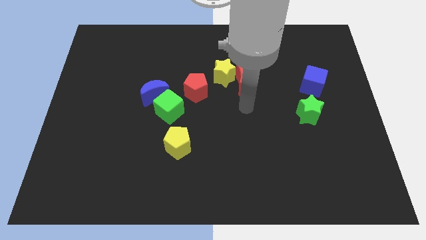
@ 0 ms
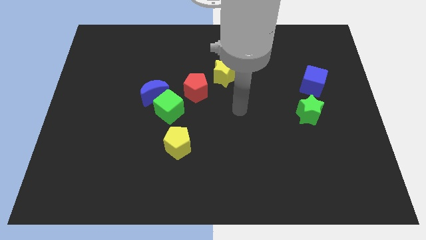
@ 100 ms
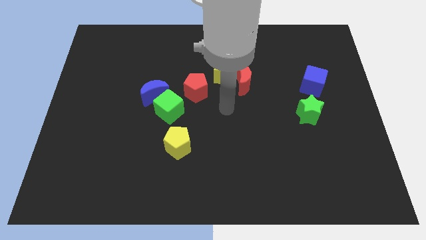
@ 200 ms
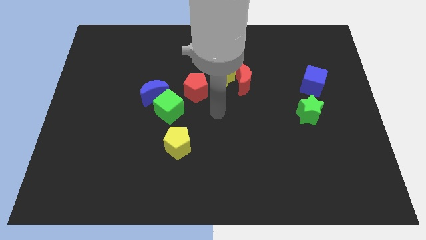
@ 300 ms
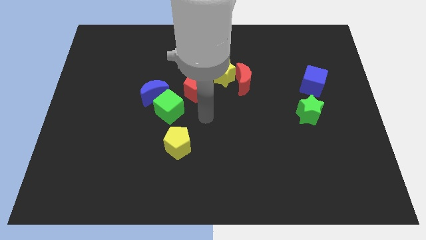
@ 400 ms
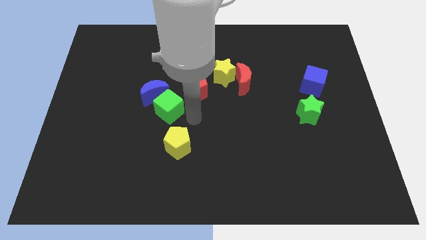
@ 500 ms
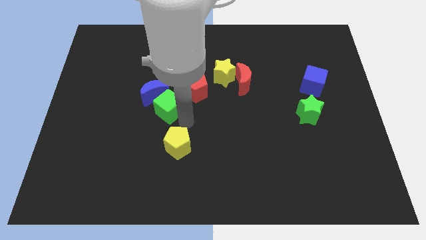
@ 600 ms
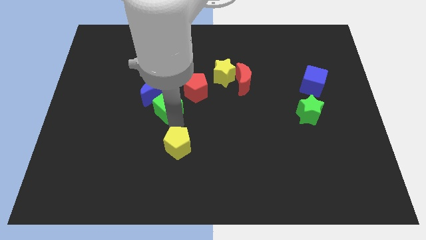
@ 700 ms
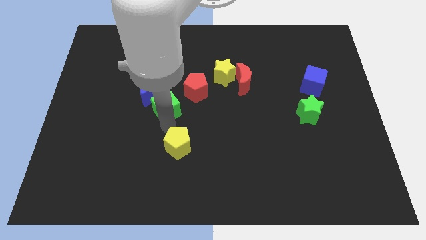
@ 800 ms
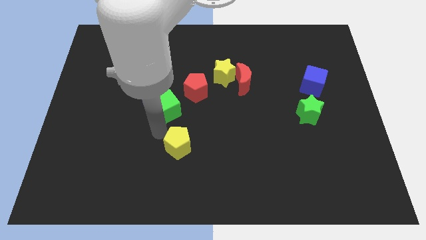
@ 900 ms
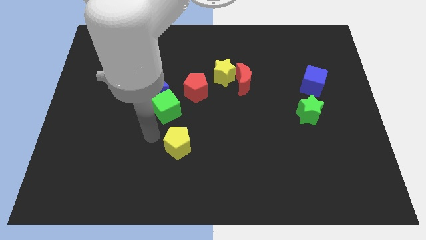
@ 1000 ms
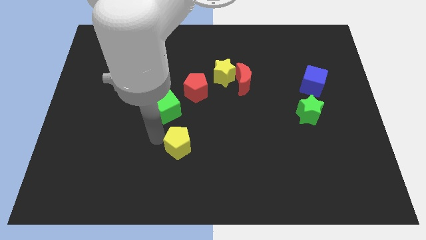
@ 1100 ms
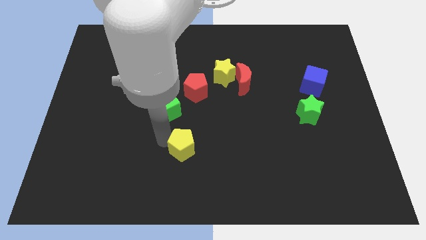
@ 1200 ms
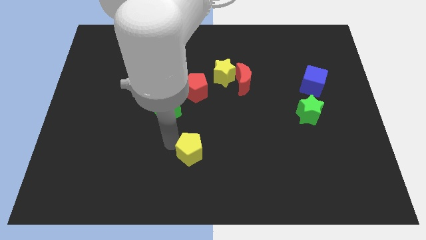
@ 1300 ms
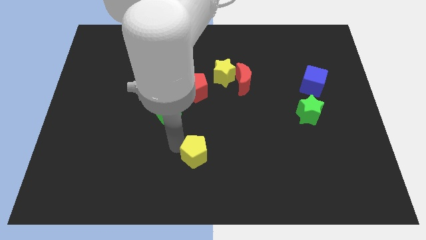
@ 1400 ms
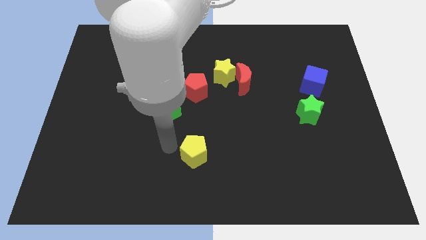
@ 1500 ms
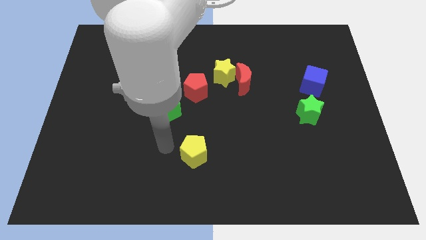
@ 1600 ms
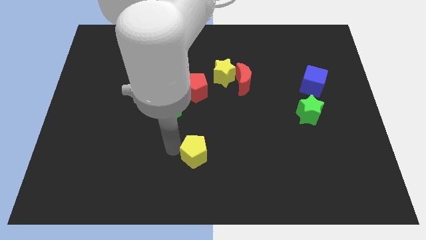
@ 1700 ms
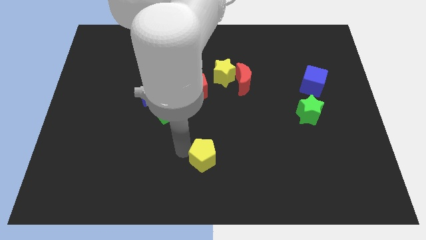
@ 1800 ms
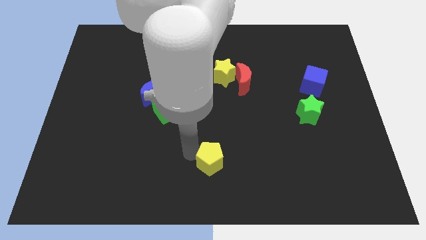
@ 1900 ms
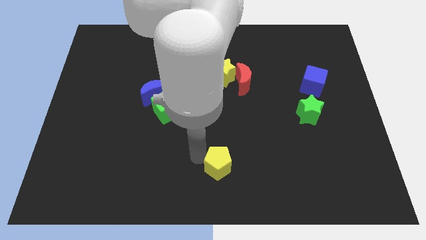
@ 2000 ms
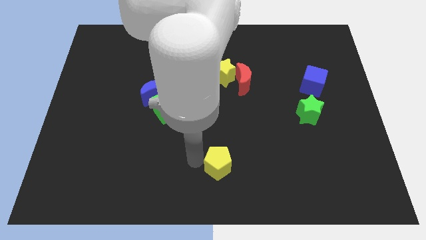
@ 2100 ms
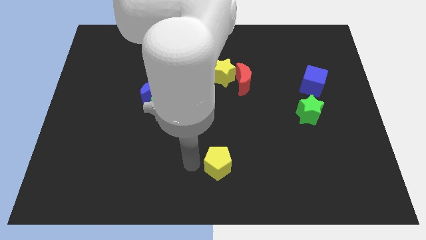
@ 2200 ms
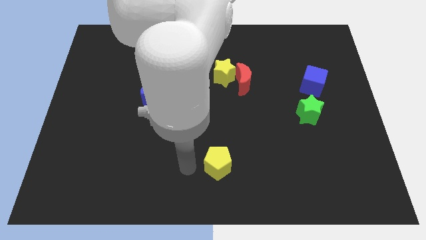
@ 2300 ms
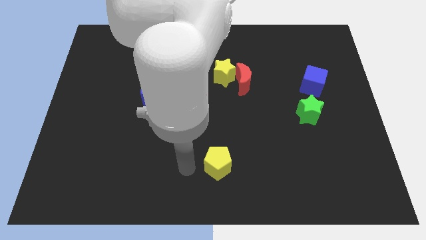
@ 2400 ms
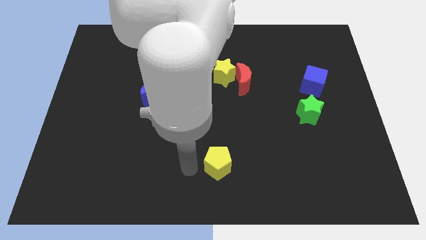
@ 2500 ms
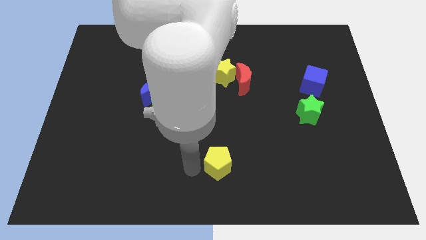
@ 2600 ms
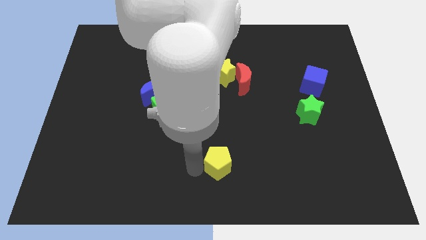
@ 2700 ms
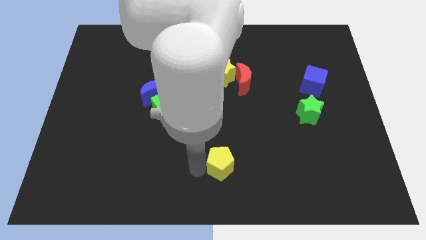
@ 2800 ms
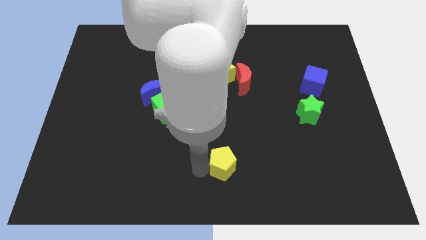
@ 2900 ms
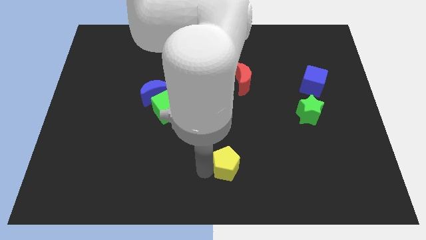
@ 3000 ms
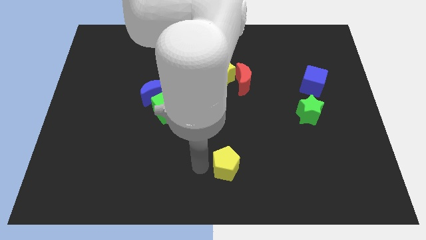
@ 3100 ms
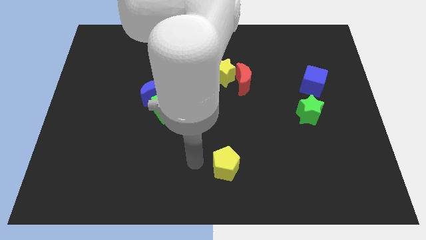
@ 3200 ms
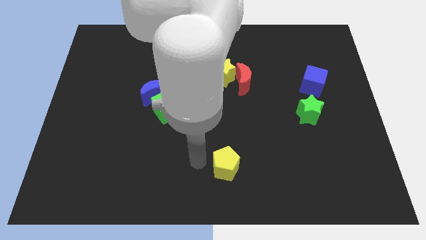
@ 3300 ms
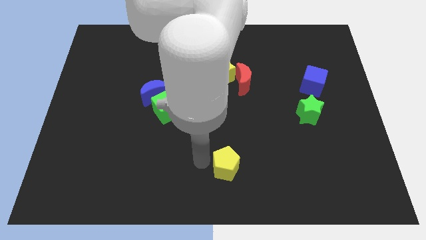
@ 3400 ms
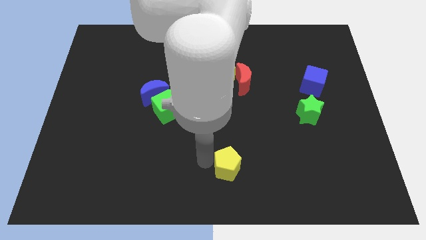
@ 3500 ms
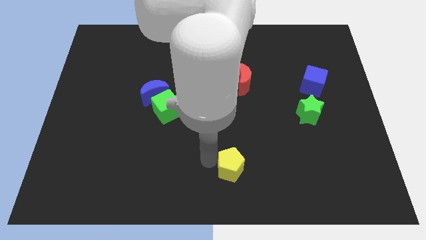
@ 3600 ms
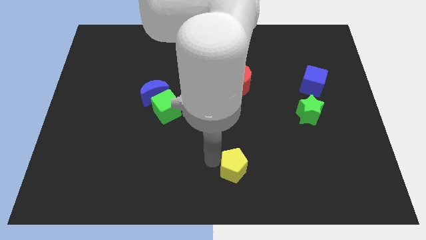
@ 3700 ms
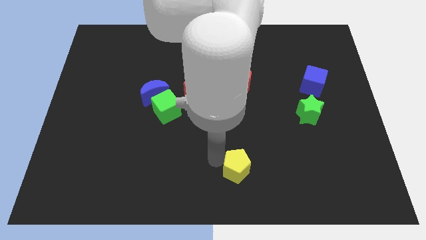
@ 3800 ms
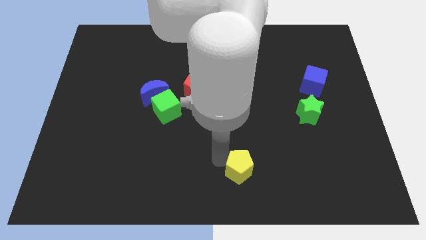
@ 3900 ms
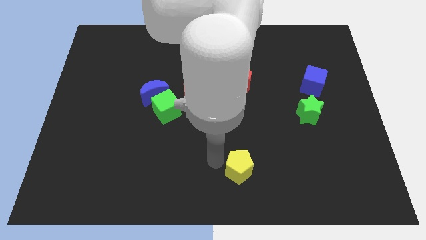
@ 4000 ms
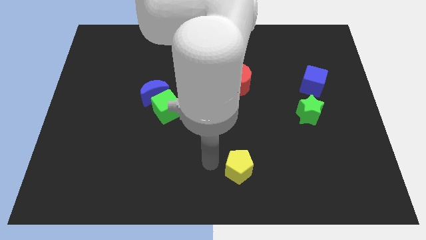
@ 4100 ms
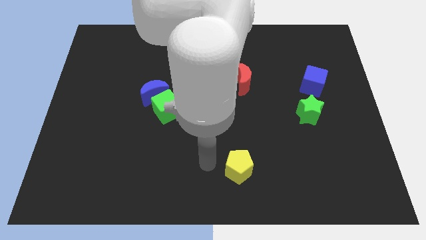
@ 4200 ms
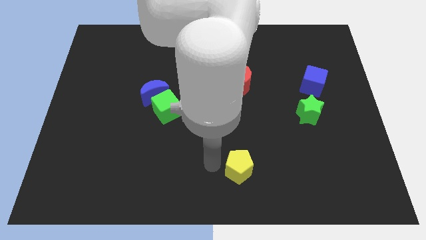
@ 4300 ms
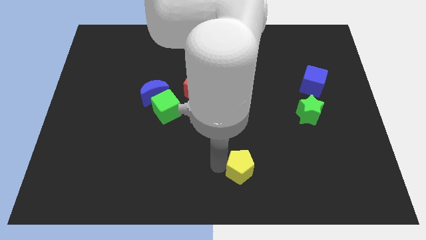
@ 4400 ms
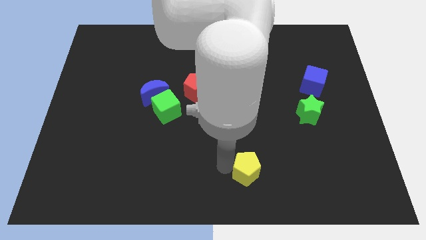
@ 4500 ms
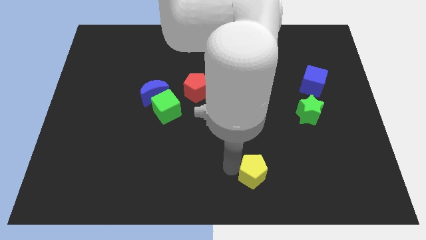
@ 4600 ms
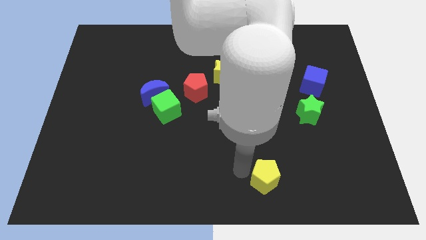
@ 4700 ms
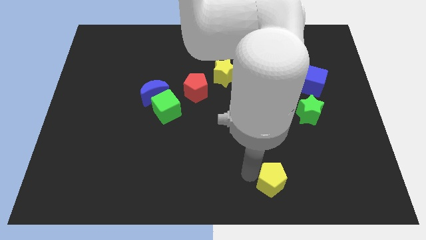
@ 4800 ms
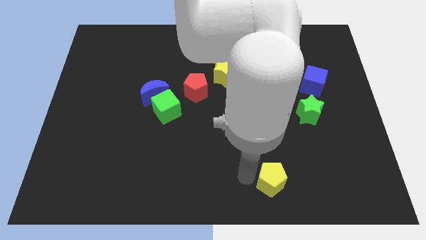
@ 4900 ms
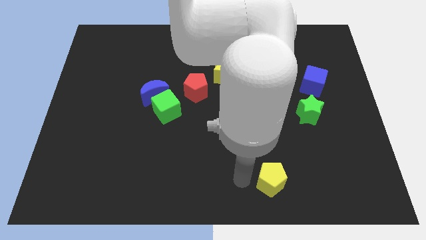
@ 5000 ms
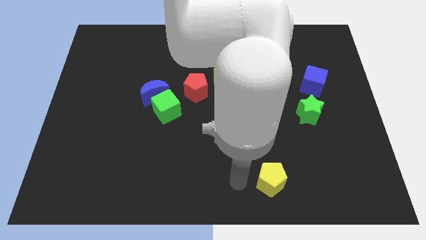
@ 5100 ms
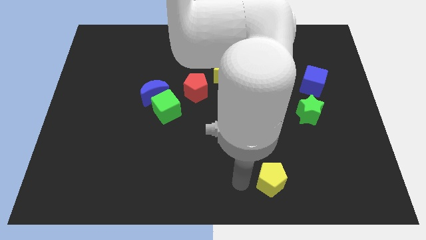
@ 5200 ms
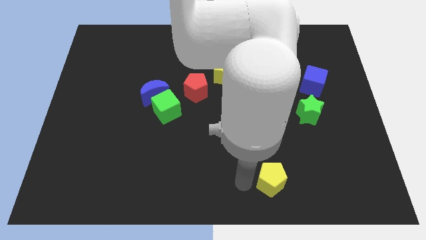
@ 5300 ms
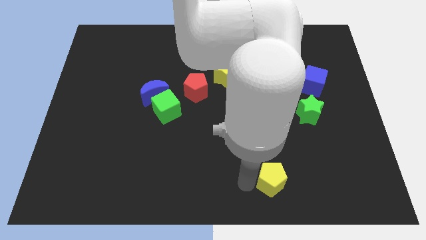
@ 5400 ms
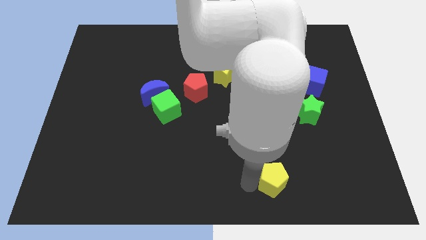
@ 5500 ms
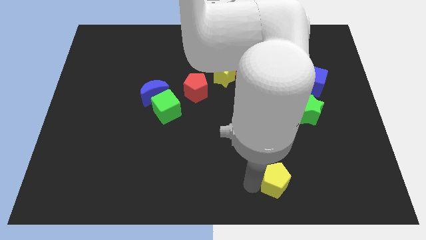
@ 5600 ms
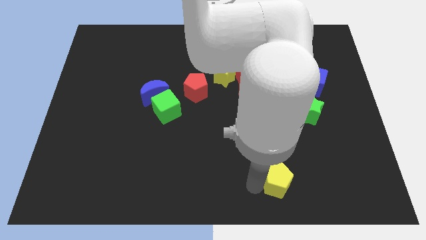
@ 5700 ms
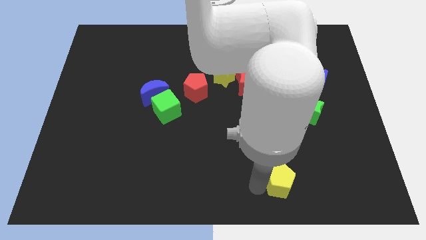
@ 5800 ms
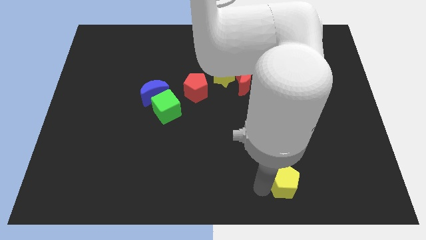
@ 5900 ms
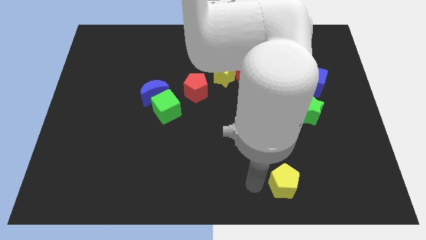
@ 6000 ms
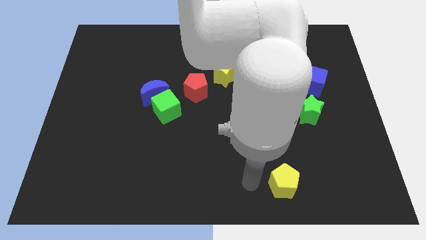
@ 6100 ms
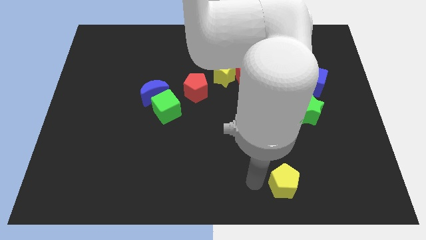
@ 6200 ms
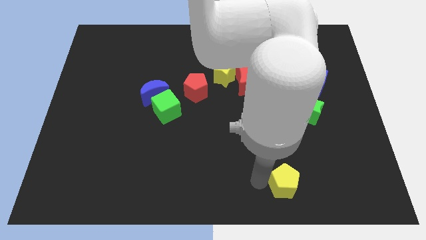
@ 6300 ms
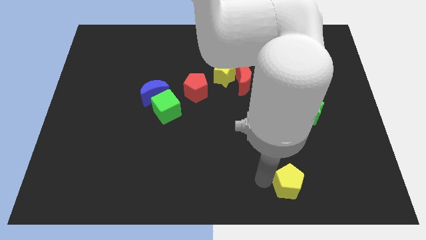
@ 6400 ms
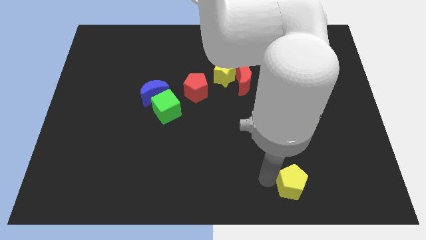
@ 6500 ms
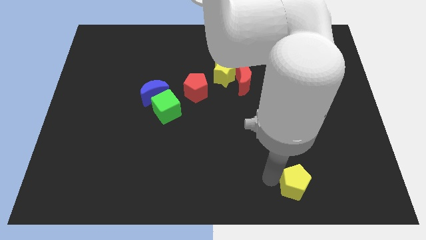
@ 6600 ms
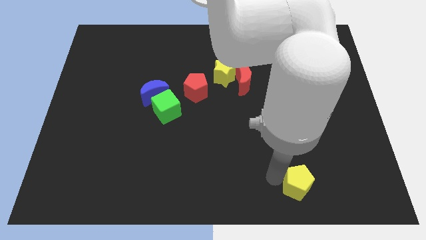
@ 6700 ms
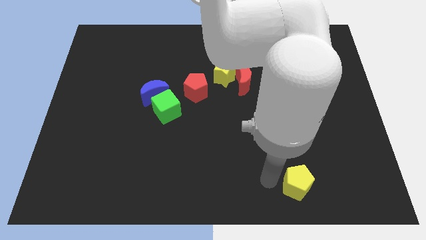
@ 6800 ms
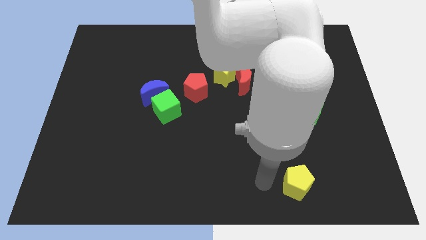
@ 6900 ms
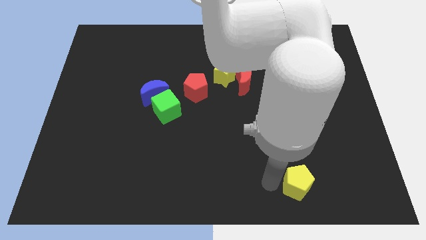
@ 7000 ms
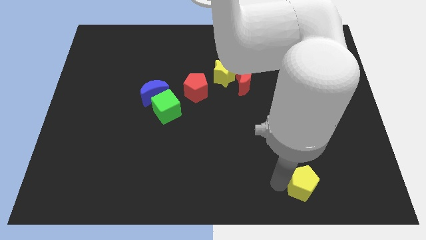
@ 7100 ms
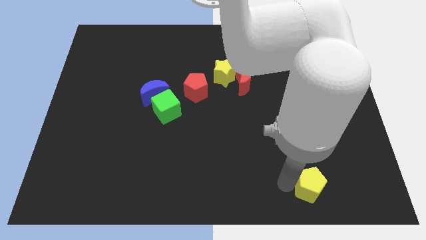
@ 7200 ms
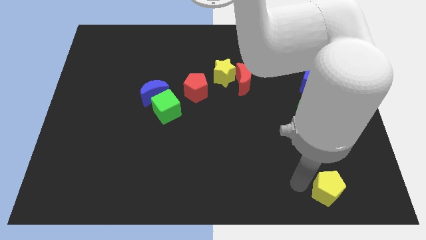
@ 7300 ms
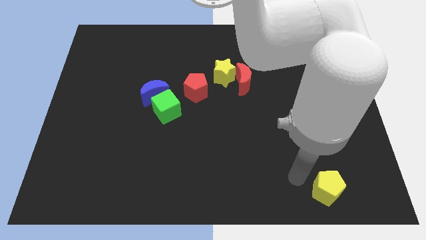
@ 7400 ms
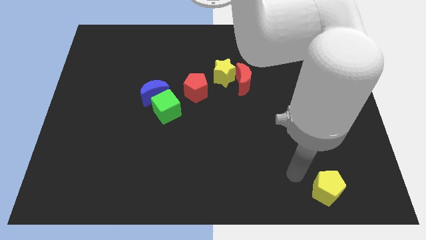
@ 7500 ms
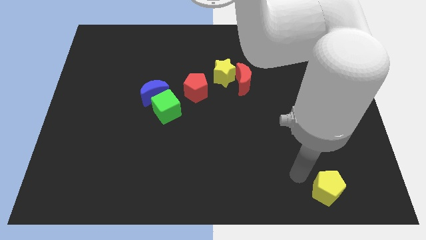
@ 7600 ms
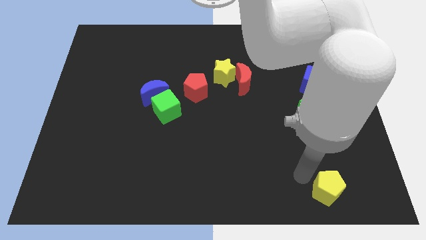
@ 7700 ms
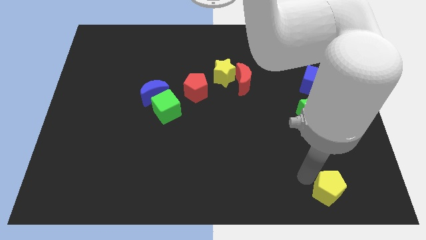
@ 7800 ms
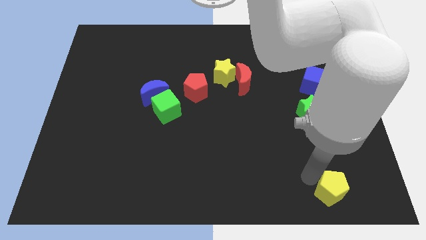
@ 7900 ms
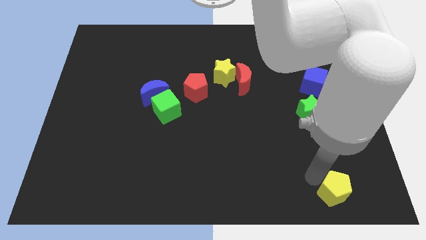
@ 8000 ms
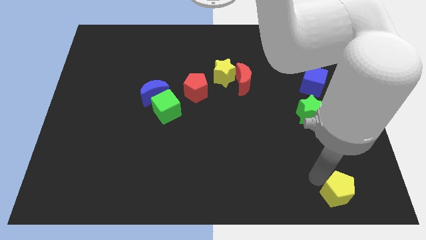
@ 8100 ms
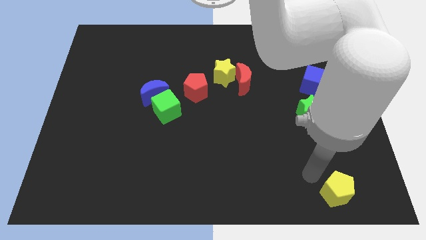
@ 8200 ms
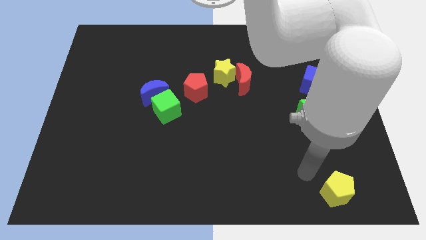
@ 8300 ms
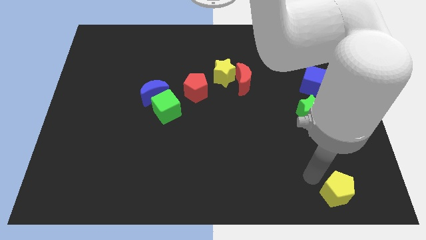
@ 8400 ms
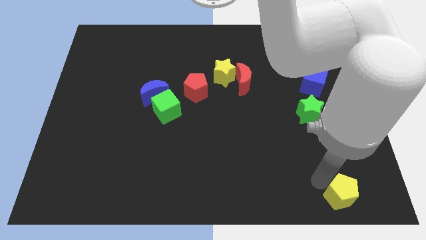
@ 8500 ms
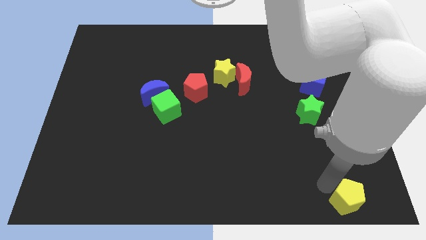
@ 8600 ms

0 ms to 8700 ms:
push the yellow pentagon to the bottom right
